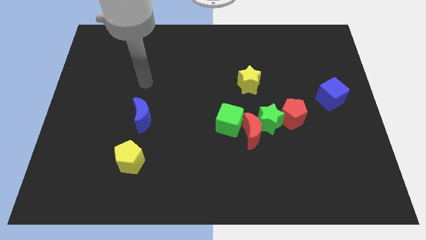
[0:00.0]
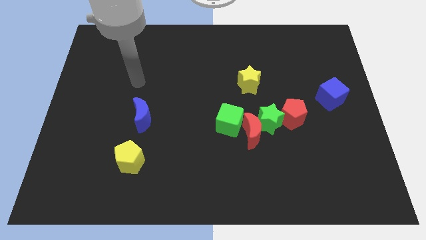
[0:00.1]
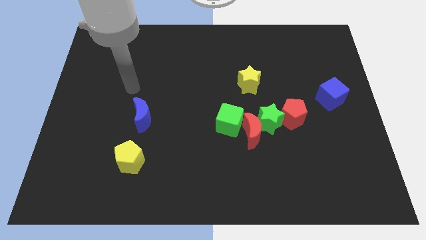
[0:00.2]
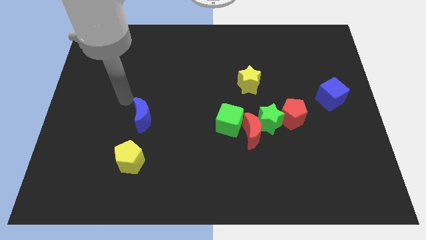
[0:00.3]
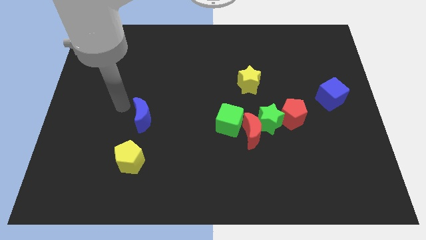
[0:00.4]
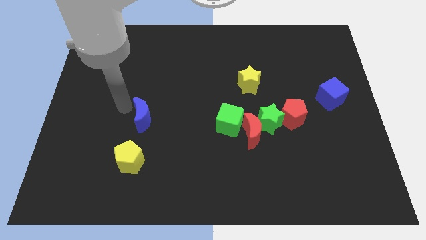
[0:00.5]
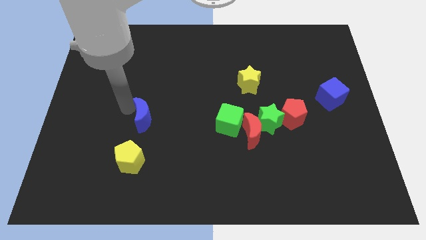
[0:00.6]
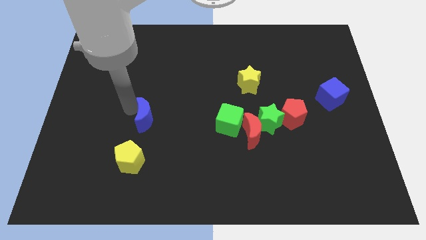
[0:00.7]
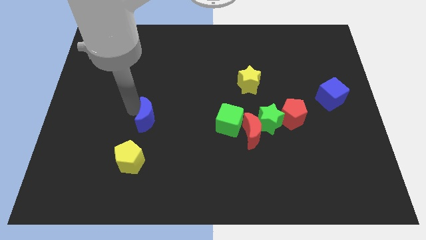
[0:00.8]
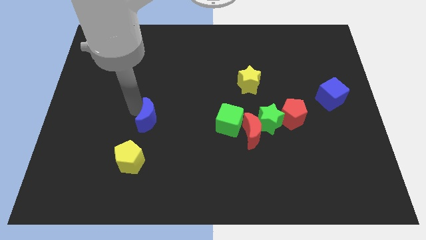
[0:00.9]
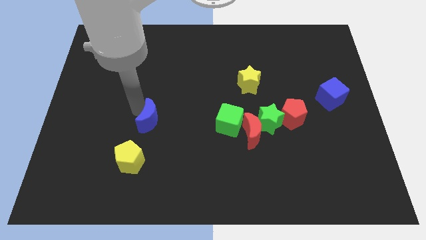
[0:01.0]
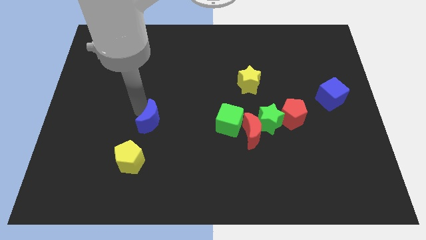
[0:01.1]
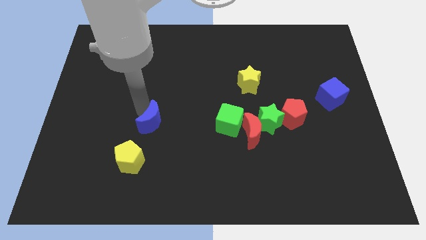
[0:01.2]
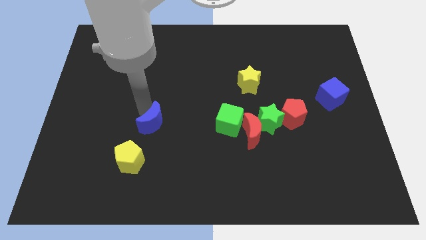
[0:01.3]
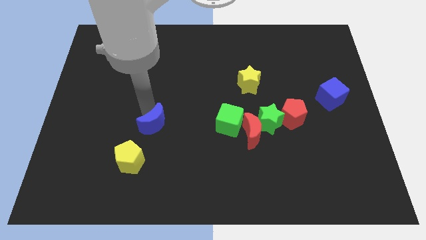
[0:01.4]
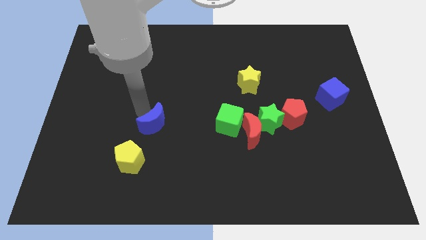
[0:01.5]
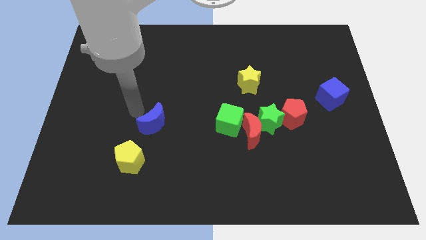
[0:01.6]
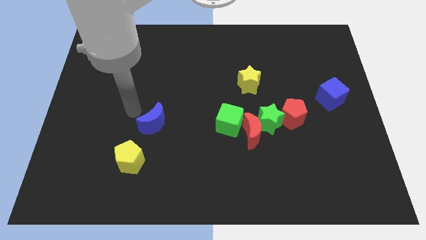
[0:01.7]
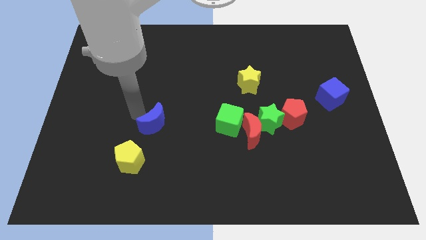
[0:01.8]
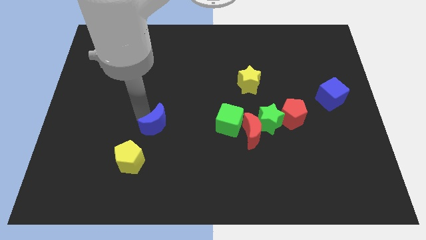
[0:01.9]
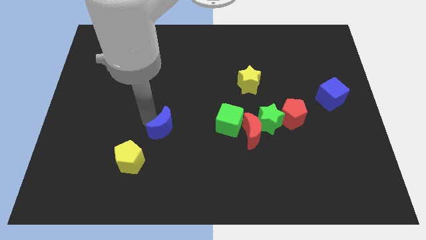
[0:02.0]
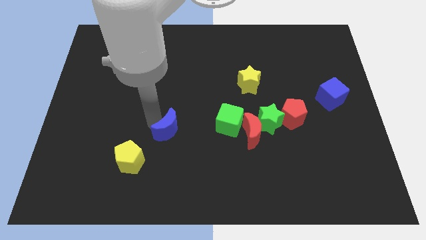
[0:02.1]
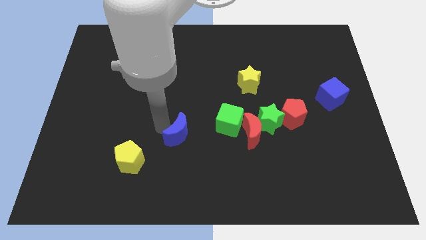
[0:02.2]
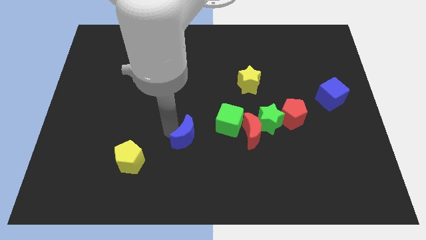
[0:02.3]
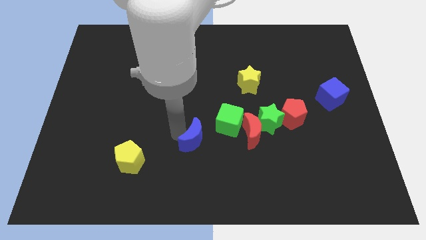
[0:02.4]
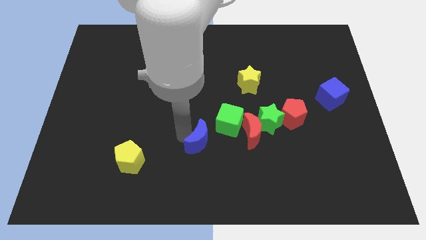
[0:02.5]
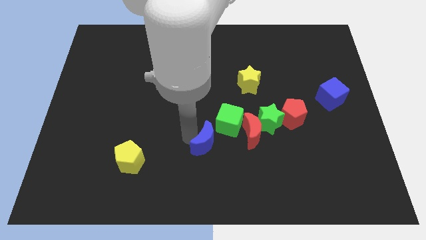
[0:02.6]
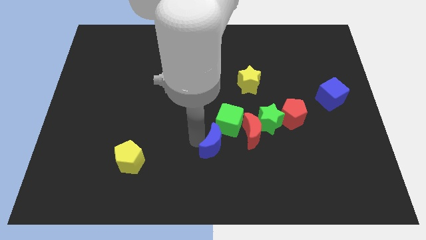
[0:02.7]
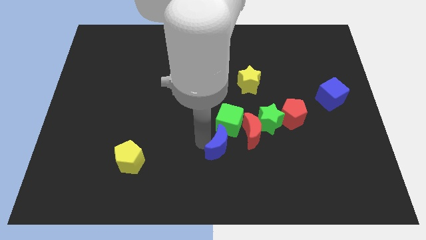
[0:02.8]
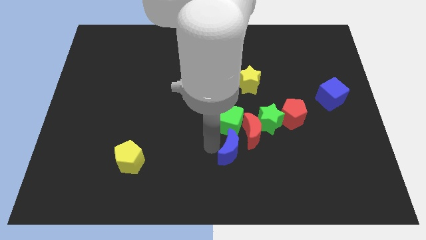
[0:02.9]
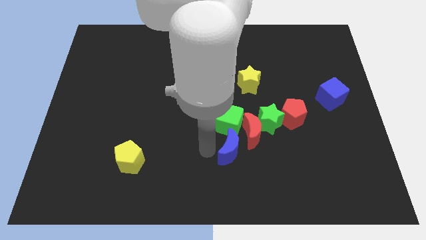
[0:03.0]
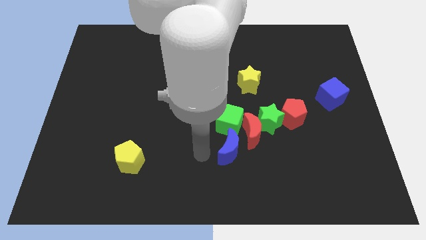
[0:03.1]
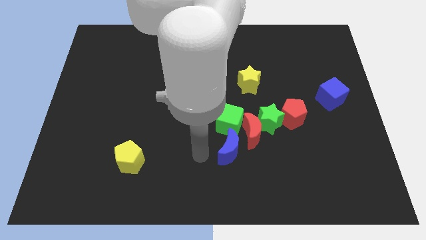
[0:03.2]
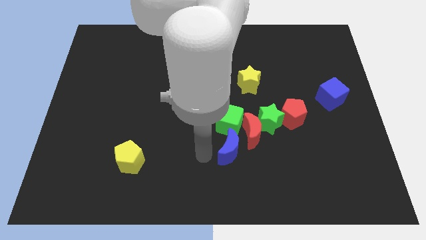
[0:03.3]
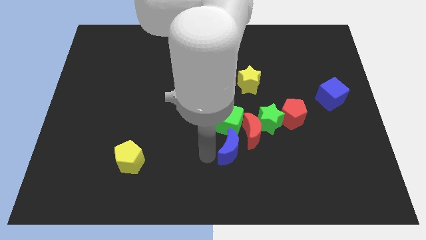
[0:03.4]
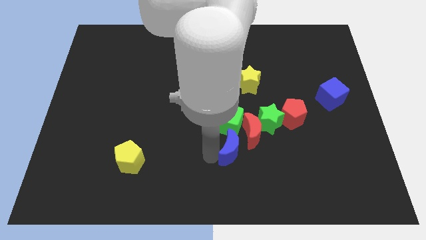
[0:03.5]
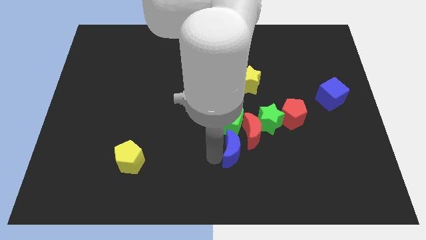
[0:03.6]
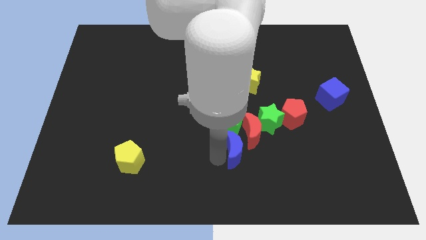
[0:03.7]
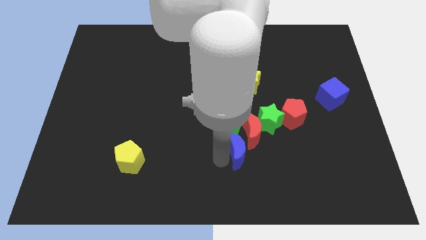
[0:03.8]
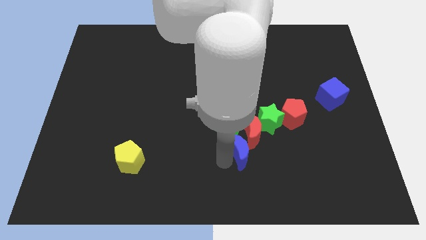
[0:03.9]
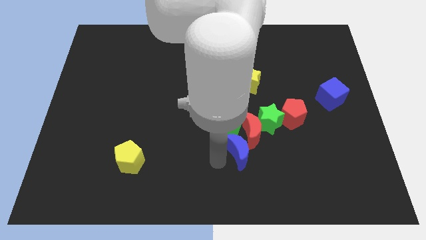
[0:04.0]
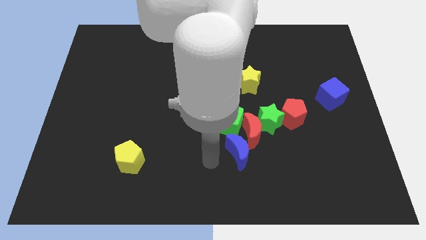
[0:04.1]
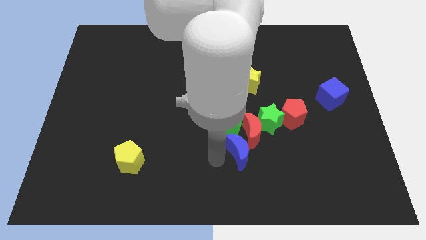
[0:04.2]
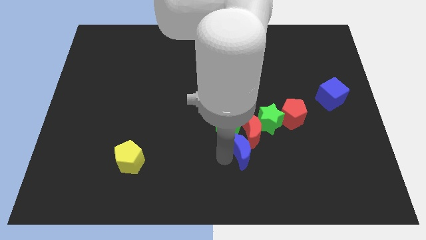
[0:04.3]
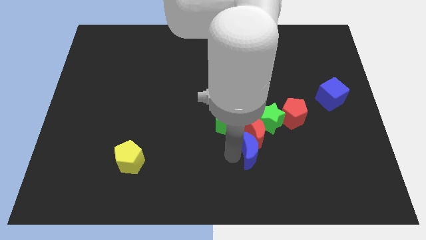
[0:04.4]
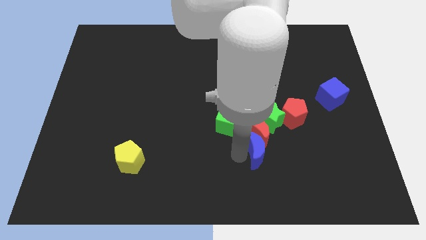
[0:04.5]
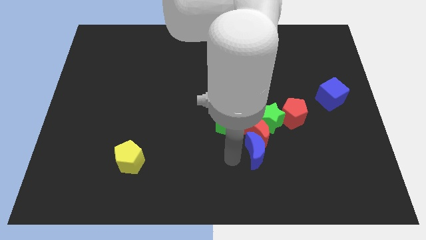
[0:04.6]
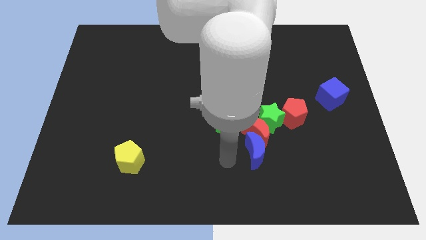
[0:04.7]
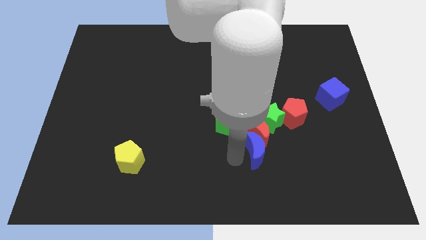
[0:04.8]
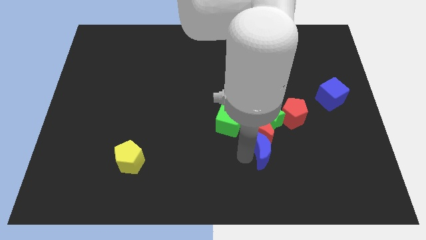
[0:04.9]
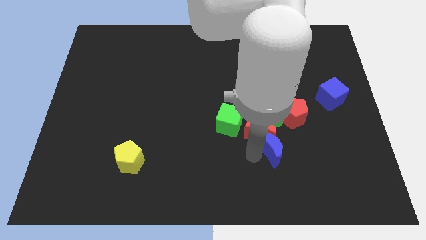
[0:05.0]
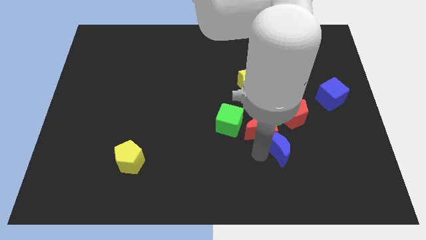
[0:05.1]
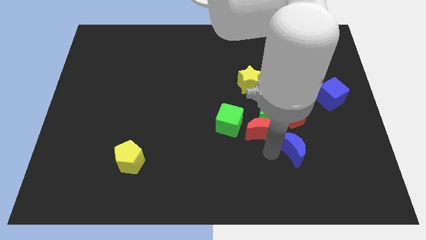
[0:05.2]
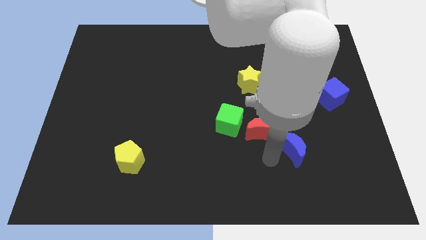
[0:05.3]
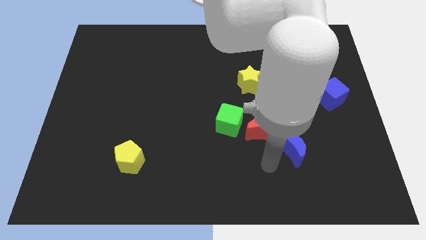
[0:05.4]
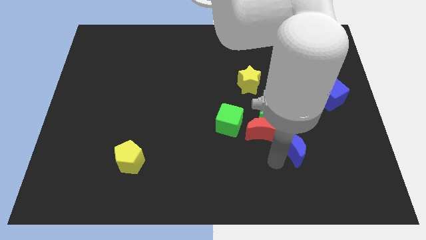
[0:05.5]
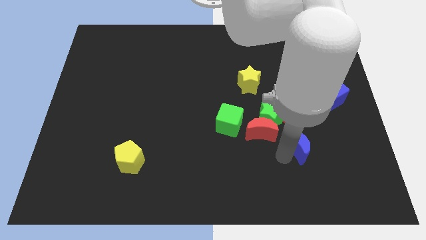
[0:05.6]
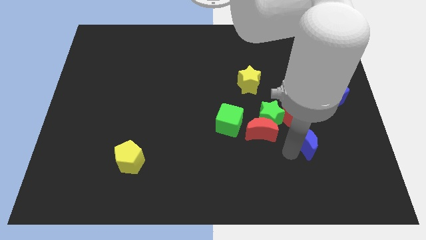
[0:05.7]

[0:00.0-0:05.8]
put the blue moon to the bottom right side of the red pentagon

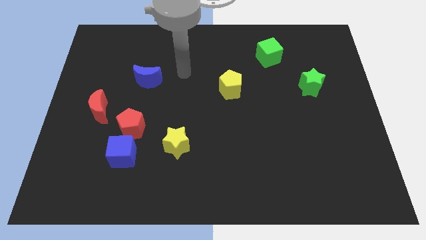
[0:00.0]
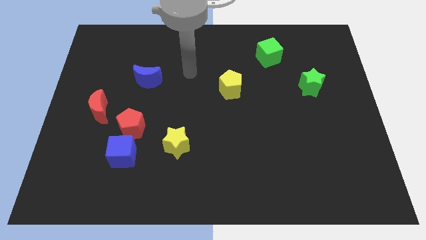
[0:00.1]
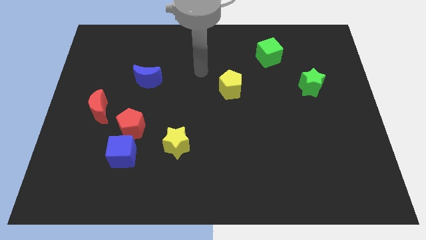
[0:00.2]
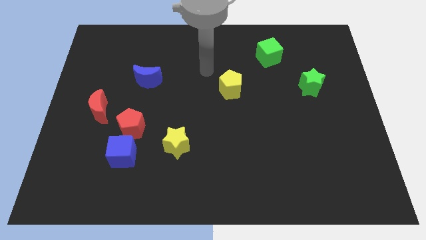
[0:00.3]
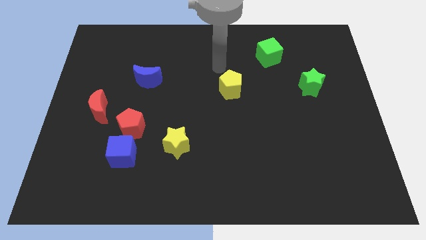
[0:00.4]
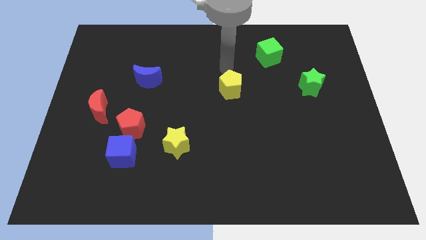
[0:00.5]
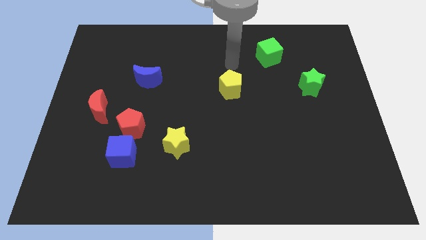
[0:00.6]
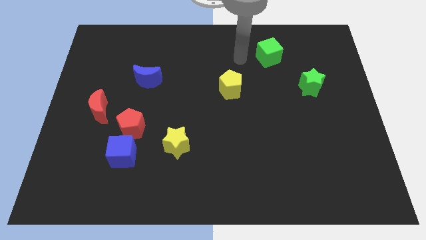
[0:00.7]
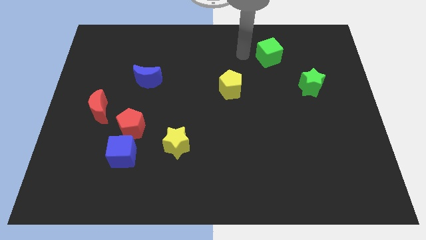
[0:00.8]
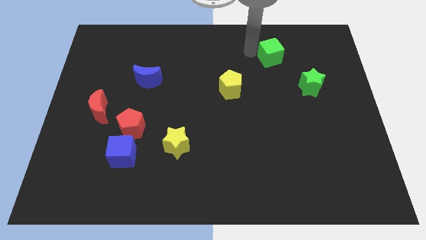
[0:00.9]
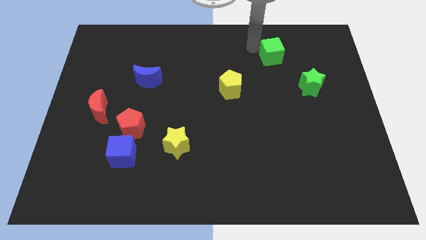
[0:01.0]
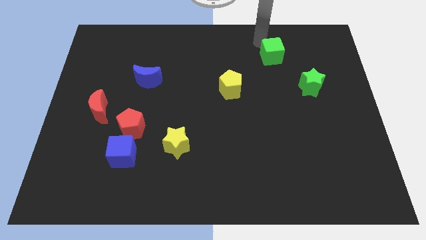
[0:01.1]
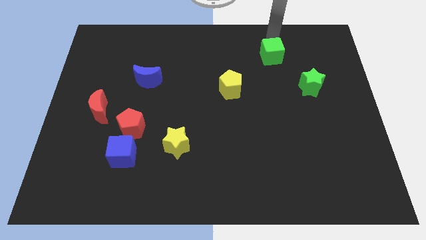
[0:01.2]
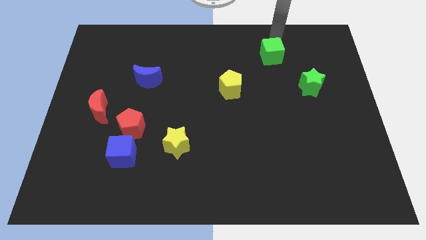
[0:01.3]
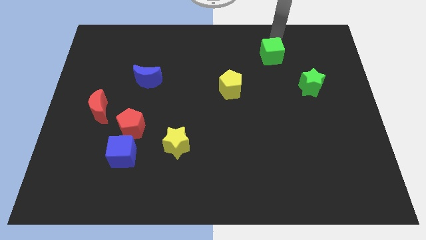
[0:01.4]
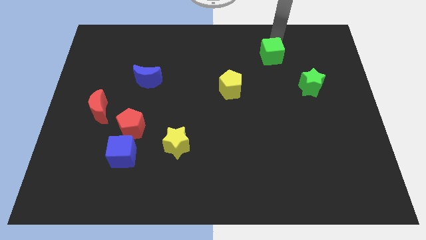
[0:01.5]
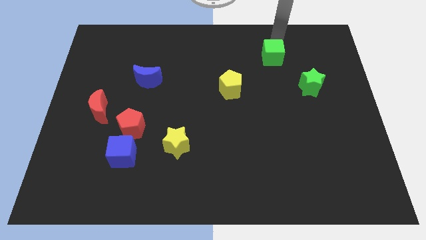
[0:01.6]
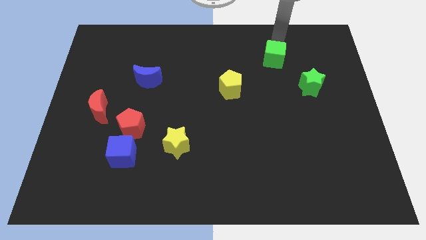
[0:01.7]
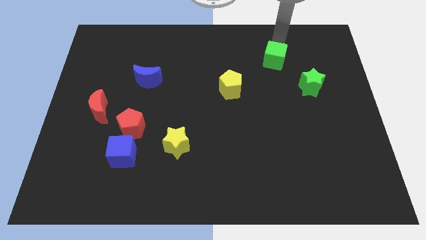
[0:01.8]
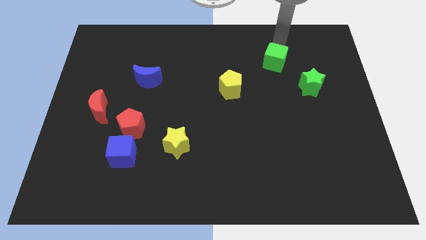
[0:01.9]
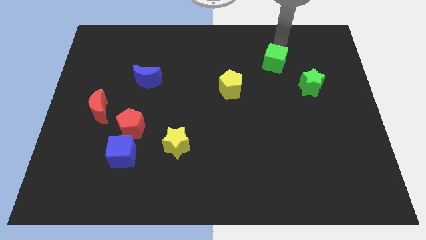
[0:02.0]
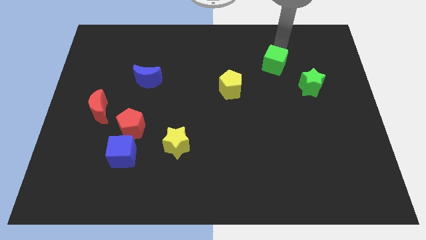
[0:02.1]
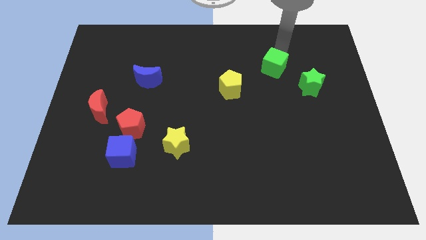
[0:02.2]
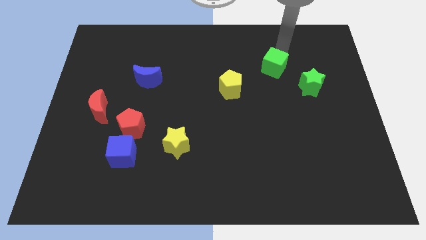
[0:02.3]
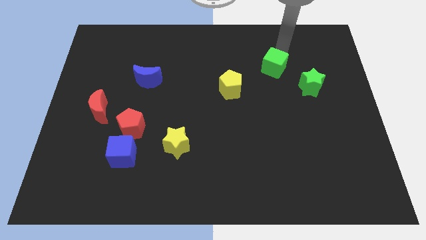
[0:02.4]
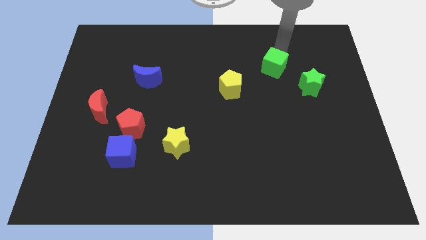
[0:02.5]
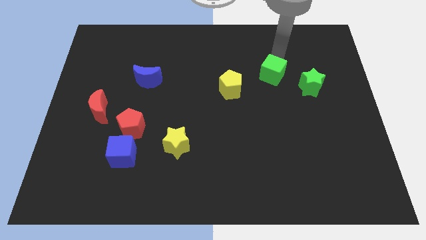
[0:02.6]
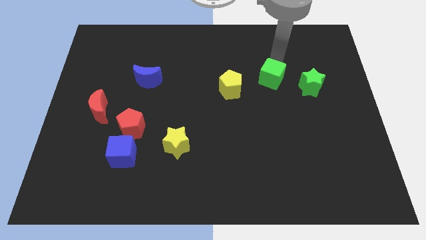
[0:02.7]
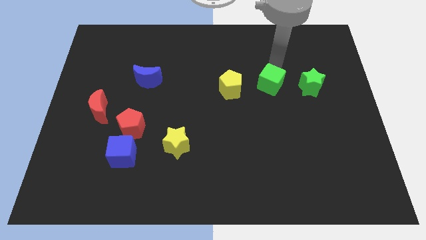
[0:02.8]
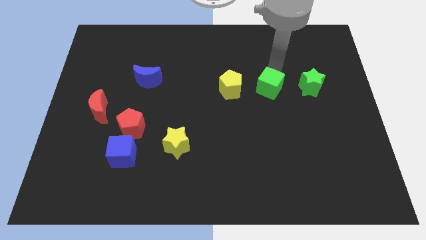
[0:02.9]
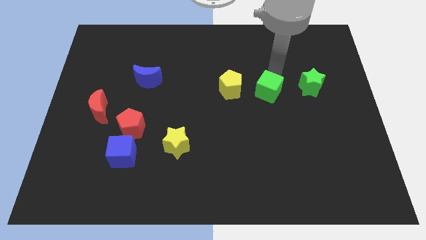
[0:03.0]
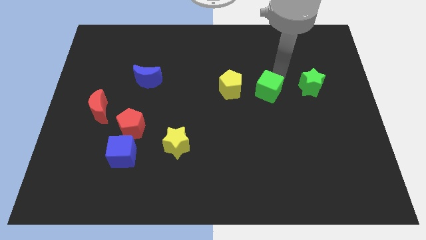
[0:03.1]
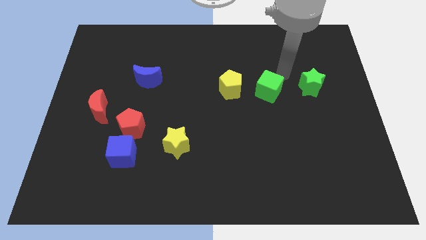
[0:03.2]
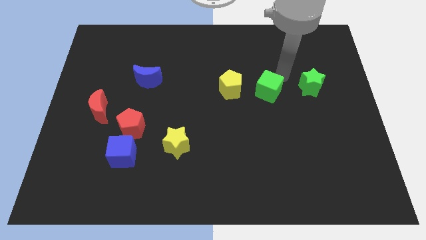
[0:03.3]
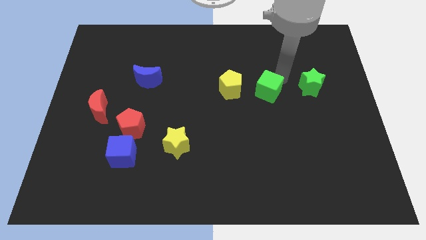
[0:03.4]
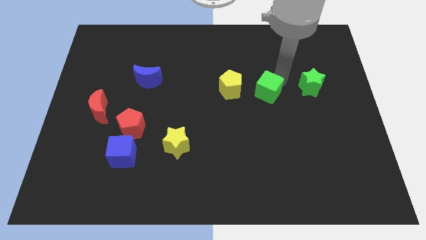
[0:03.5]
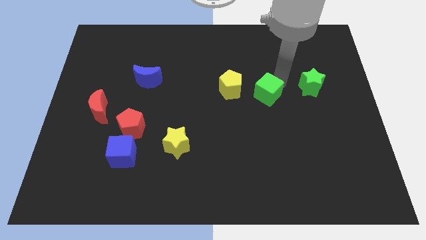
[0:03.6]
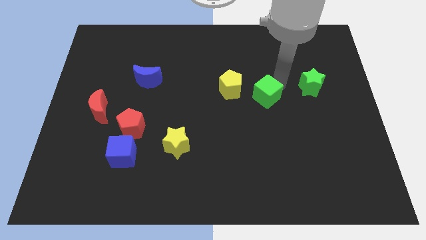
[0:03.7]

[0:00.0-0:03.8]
move the green cube to the bottom right side of the yellow pentagon
